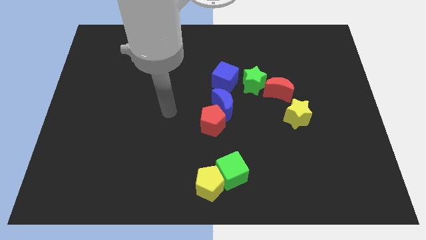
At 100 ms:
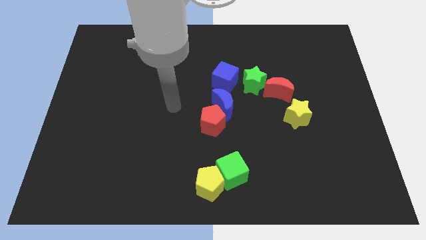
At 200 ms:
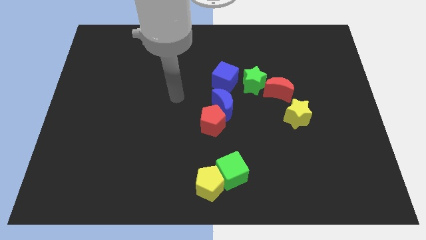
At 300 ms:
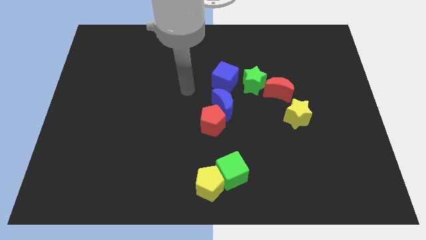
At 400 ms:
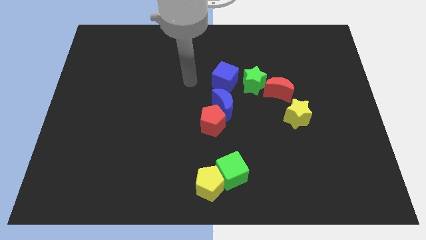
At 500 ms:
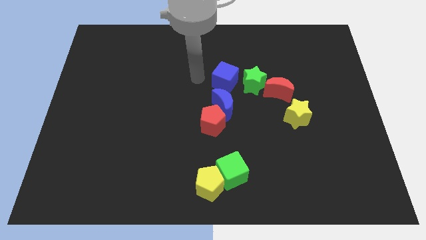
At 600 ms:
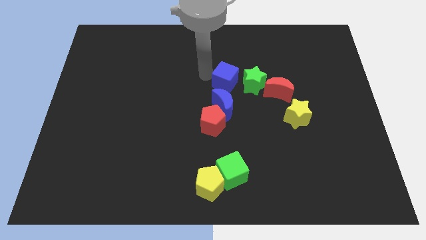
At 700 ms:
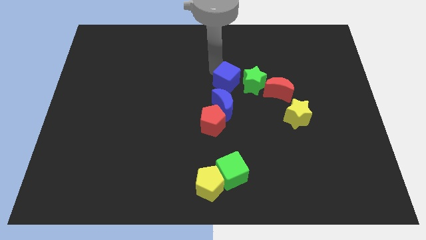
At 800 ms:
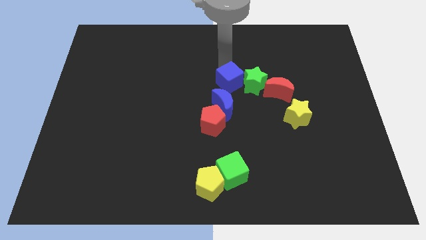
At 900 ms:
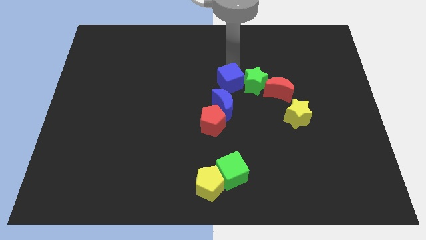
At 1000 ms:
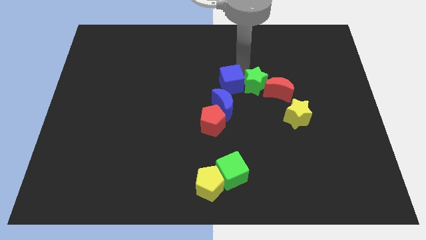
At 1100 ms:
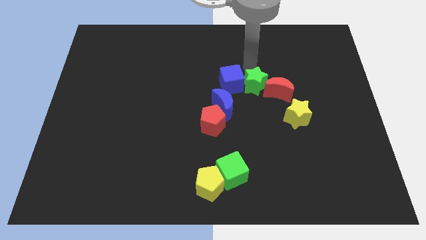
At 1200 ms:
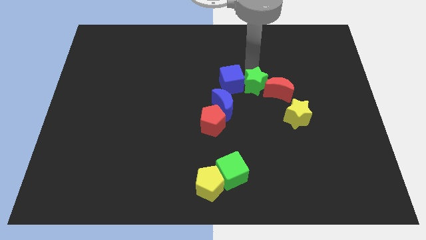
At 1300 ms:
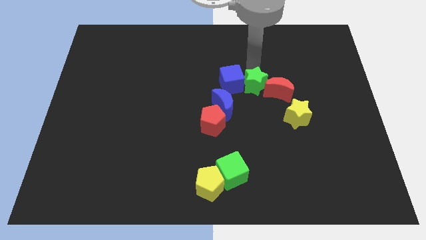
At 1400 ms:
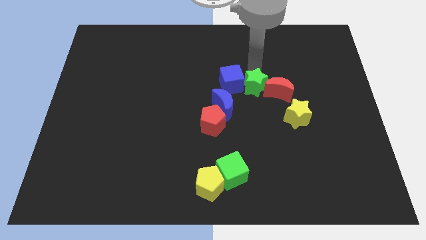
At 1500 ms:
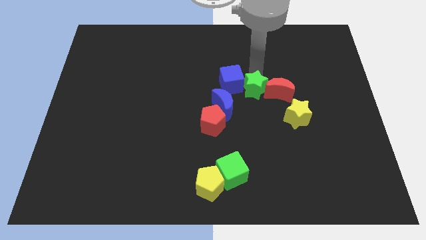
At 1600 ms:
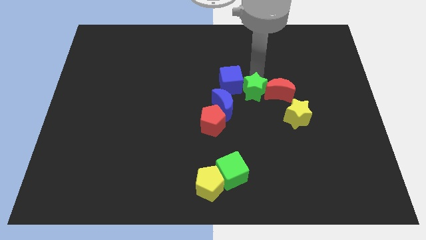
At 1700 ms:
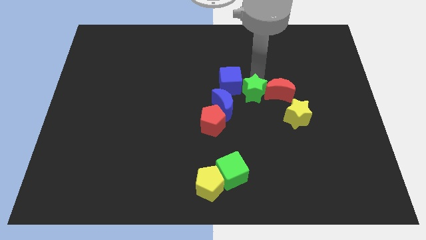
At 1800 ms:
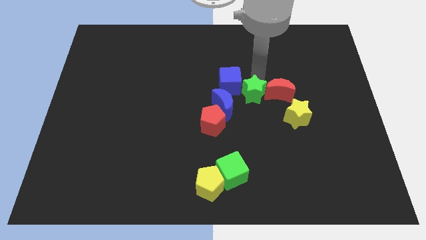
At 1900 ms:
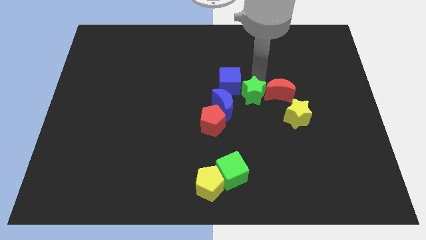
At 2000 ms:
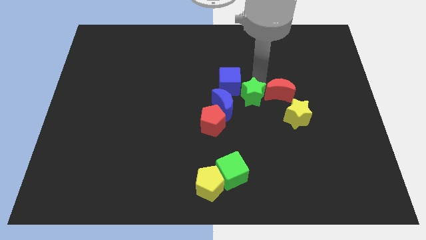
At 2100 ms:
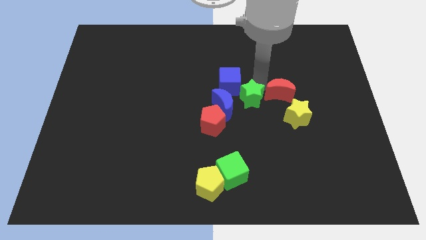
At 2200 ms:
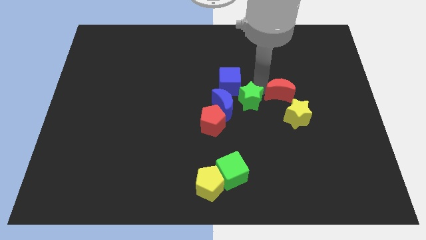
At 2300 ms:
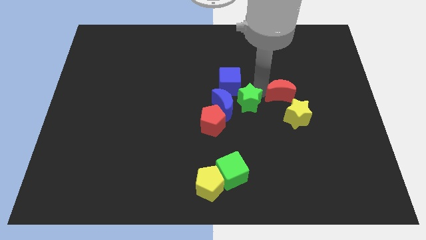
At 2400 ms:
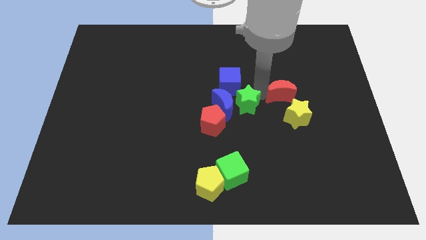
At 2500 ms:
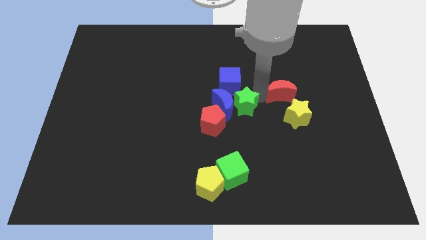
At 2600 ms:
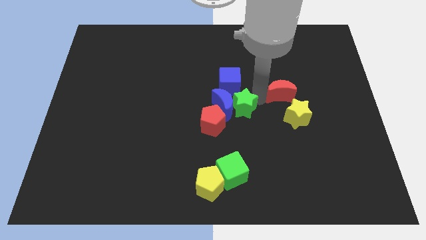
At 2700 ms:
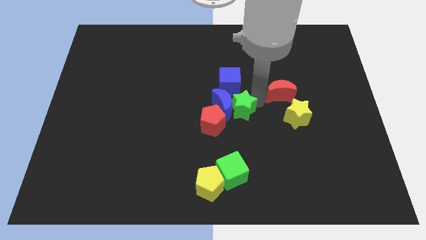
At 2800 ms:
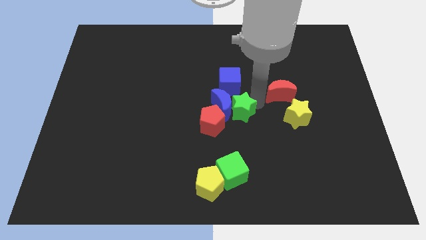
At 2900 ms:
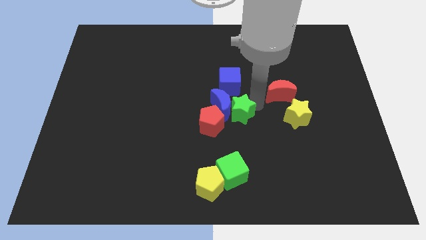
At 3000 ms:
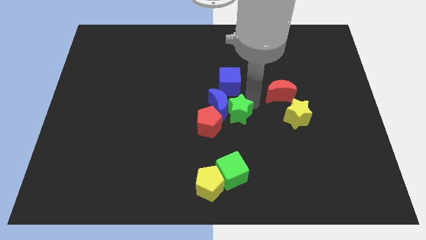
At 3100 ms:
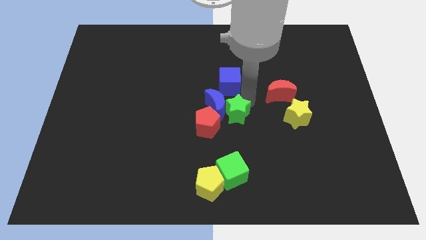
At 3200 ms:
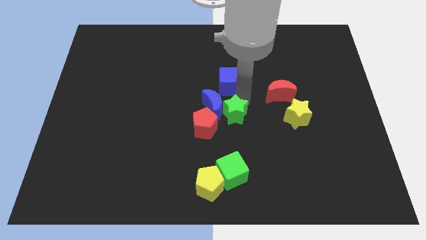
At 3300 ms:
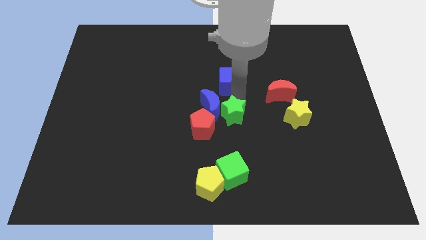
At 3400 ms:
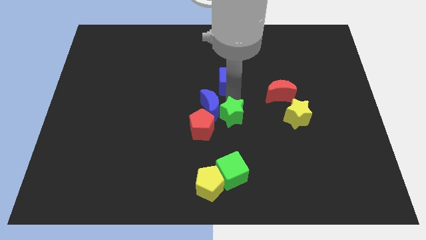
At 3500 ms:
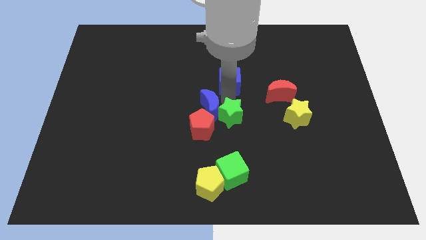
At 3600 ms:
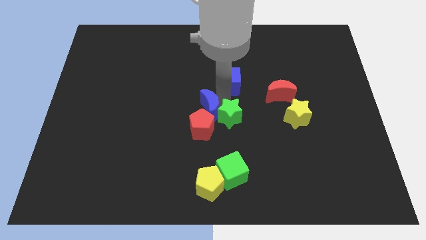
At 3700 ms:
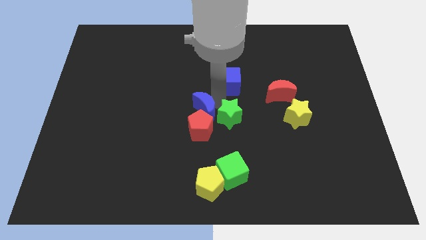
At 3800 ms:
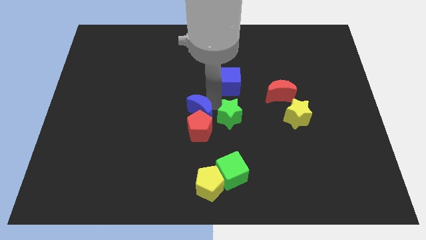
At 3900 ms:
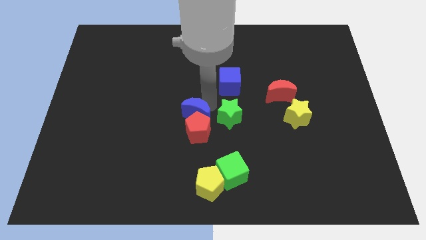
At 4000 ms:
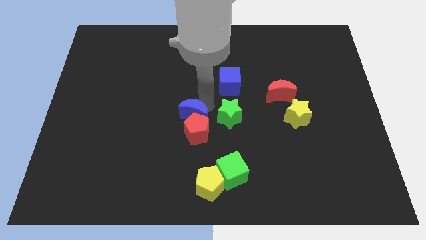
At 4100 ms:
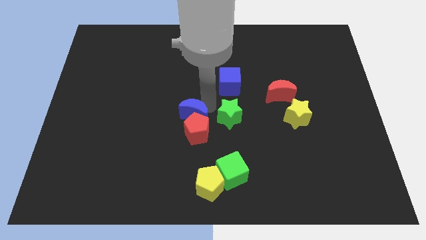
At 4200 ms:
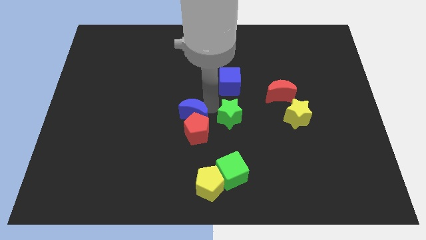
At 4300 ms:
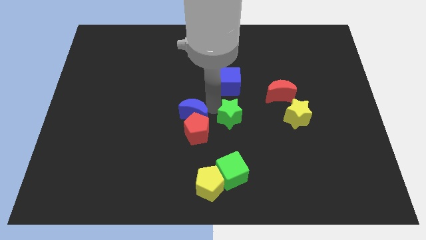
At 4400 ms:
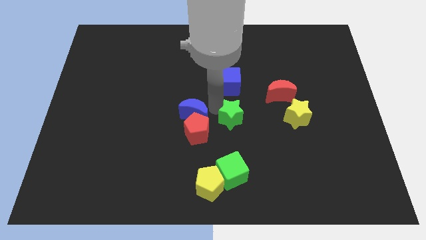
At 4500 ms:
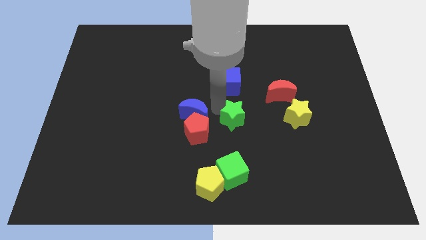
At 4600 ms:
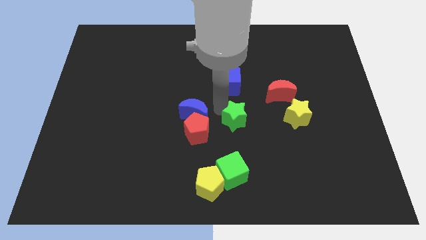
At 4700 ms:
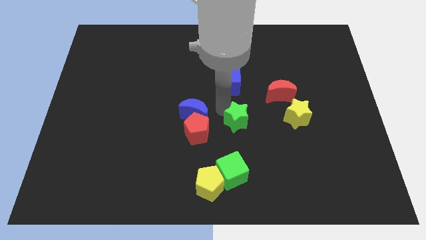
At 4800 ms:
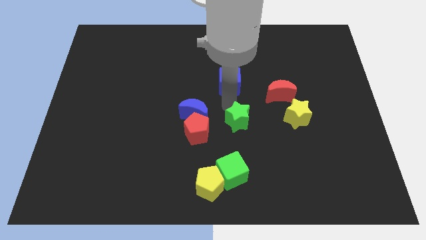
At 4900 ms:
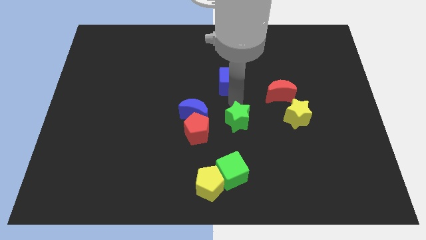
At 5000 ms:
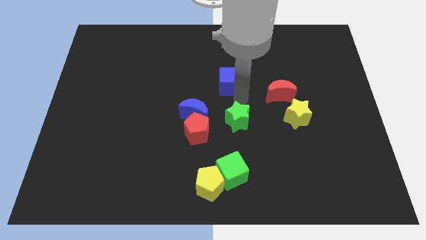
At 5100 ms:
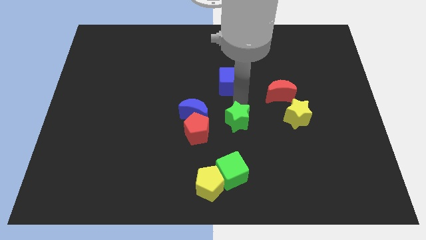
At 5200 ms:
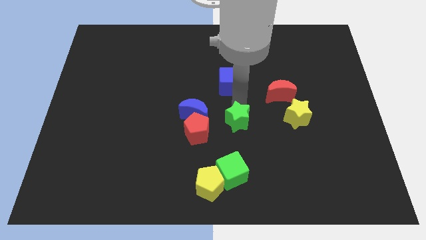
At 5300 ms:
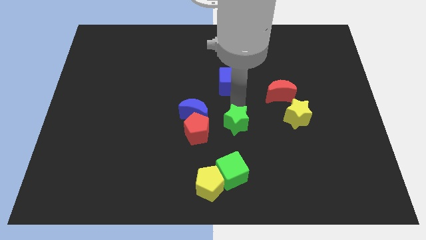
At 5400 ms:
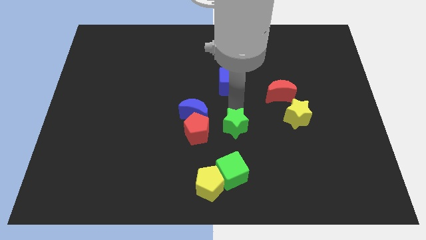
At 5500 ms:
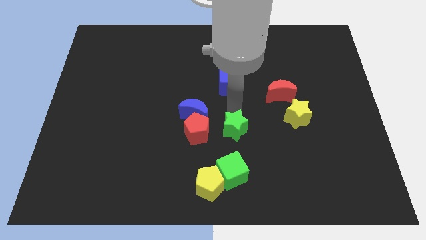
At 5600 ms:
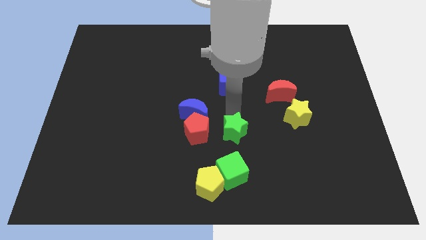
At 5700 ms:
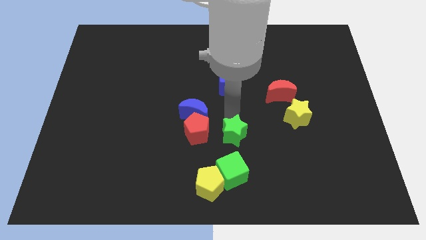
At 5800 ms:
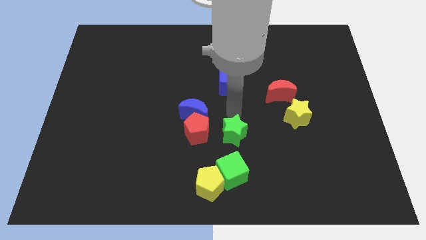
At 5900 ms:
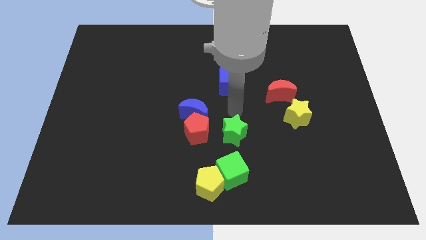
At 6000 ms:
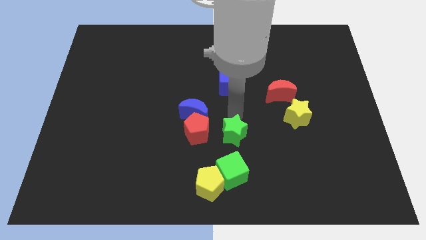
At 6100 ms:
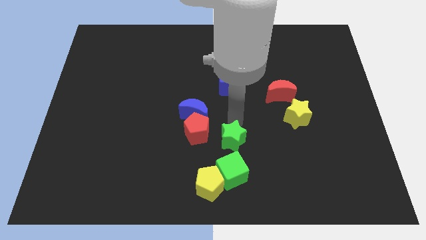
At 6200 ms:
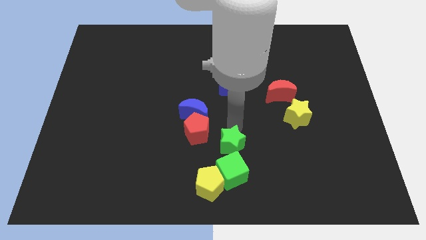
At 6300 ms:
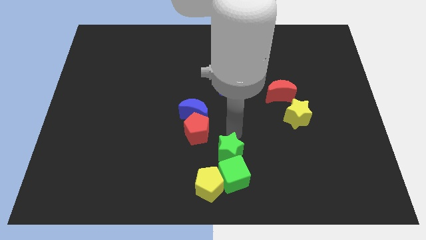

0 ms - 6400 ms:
slide the green star to the green cube

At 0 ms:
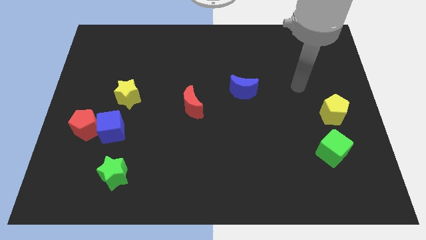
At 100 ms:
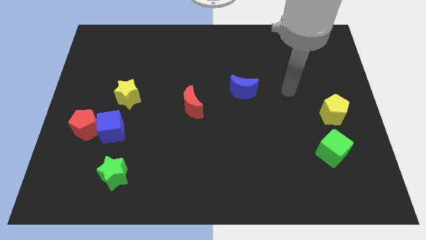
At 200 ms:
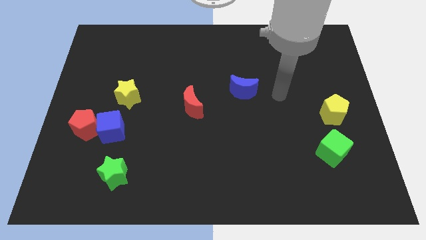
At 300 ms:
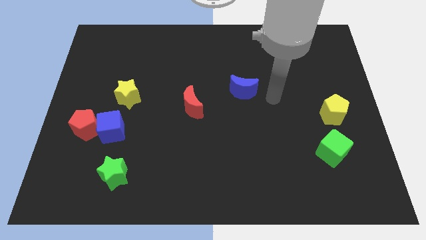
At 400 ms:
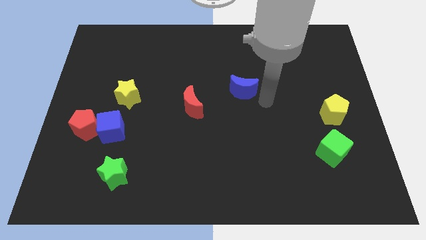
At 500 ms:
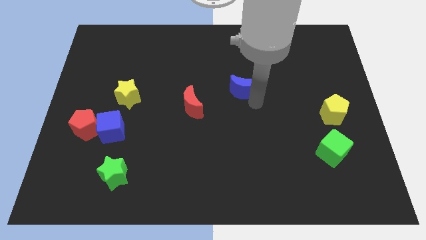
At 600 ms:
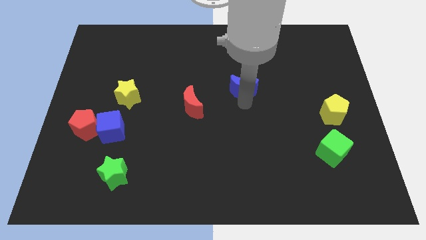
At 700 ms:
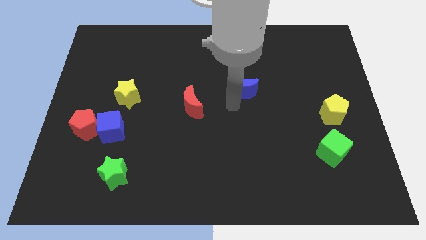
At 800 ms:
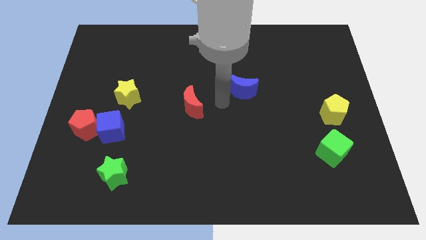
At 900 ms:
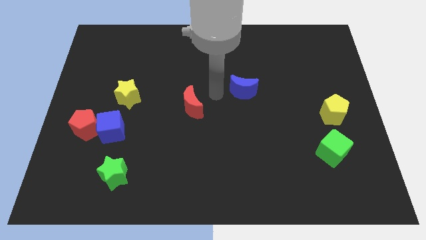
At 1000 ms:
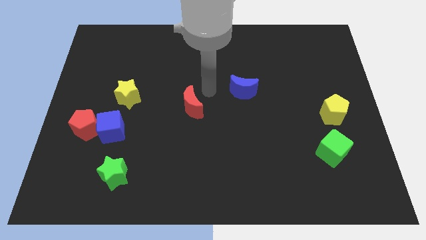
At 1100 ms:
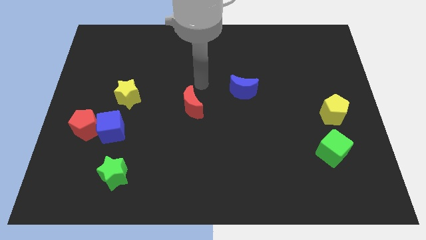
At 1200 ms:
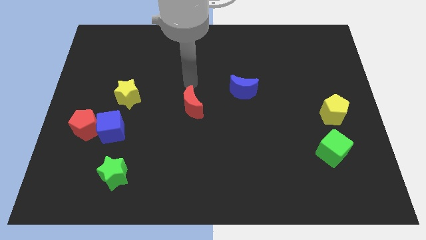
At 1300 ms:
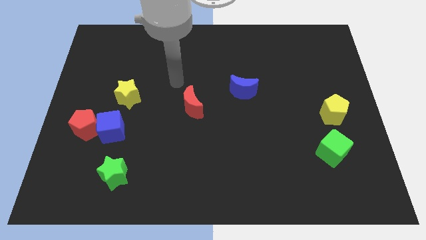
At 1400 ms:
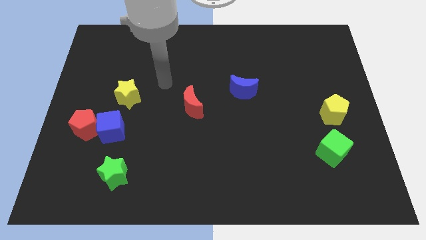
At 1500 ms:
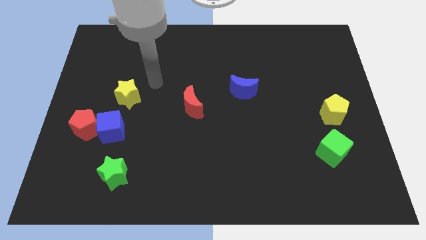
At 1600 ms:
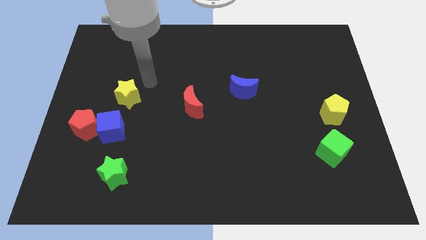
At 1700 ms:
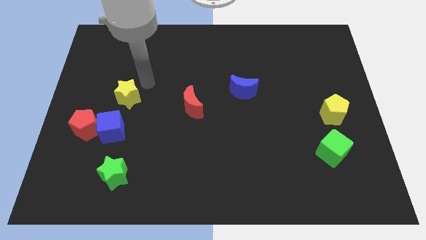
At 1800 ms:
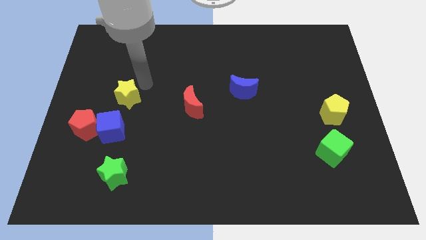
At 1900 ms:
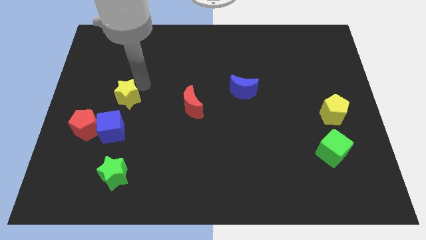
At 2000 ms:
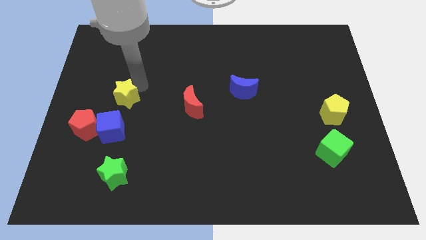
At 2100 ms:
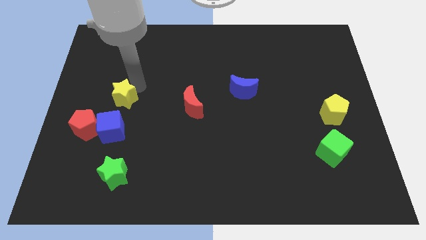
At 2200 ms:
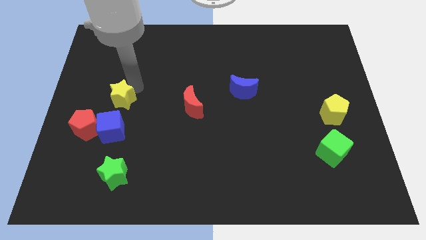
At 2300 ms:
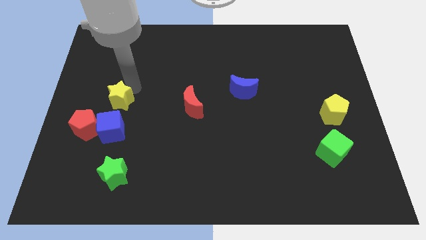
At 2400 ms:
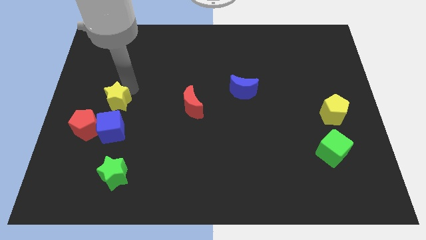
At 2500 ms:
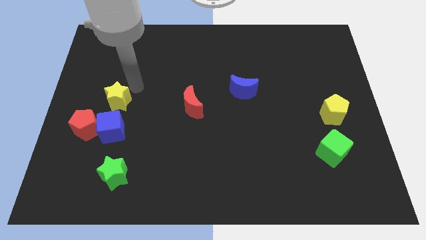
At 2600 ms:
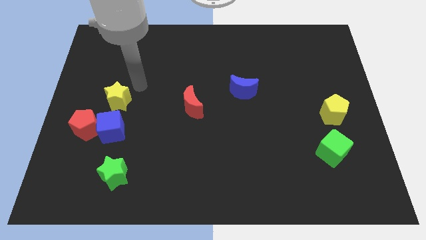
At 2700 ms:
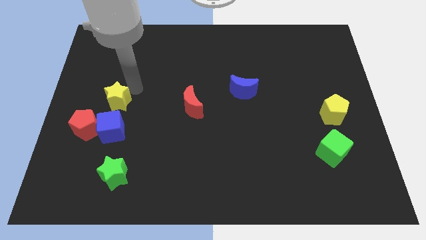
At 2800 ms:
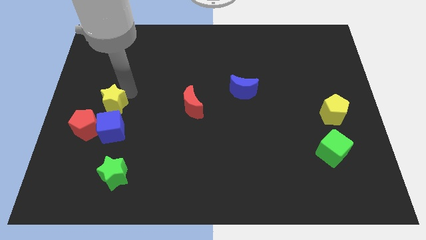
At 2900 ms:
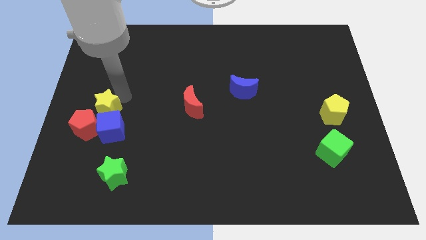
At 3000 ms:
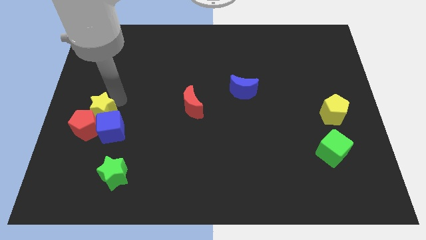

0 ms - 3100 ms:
slide the yellow star towards the red pentagon
